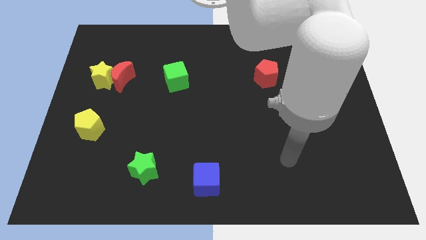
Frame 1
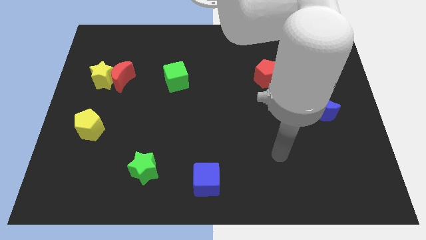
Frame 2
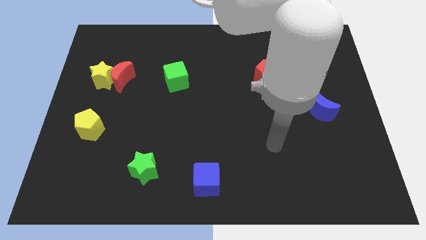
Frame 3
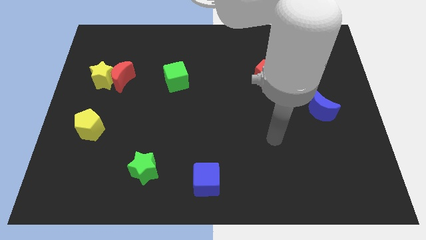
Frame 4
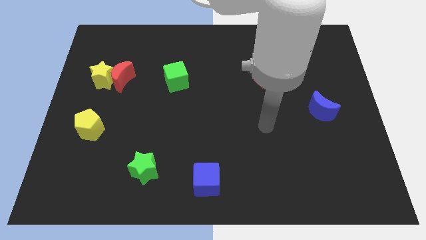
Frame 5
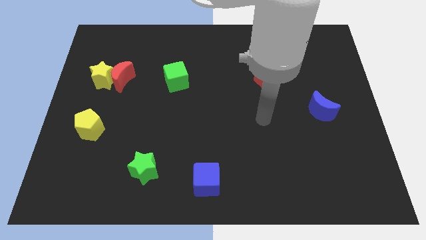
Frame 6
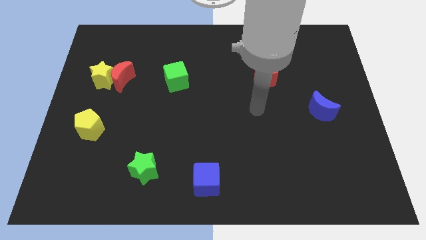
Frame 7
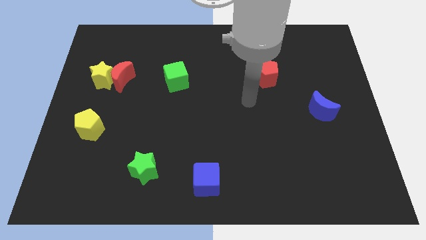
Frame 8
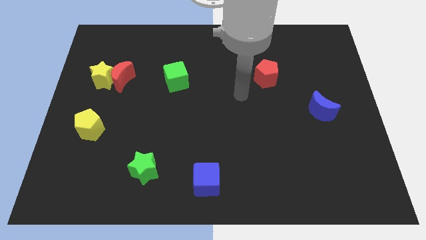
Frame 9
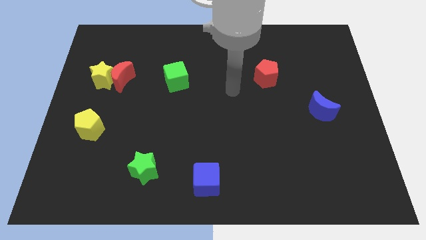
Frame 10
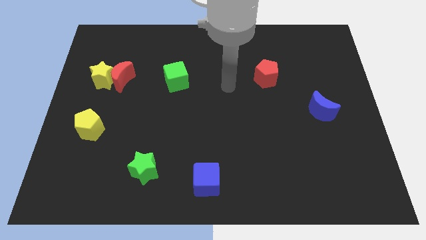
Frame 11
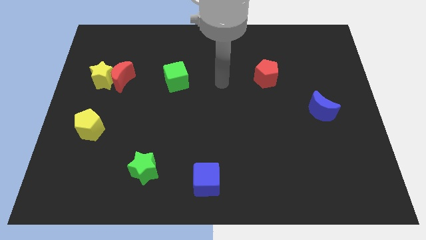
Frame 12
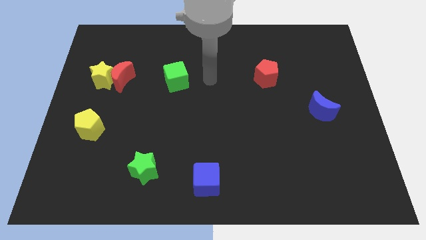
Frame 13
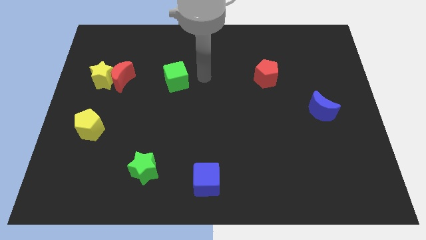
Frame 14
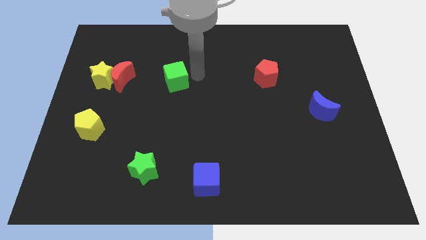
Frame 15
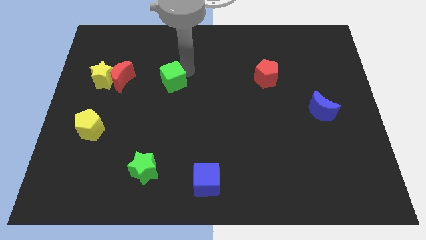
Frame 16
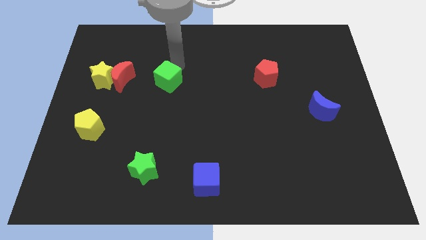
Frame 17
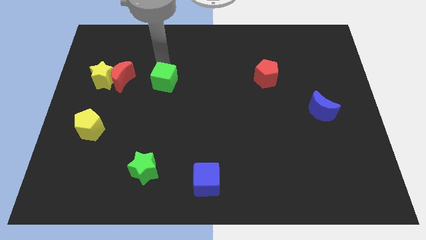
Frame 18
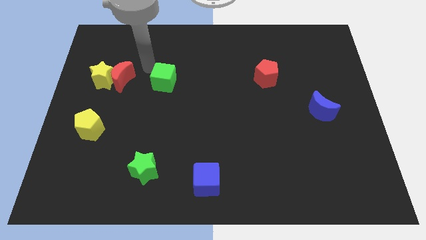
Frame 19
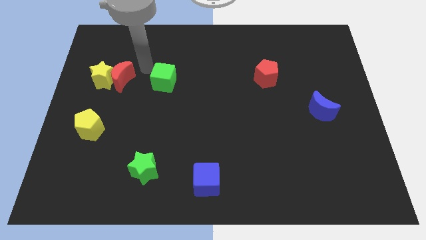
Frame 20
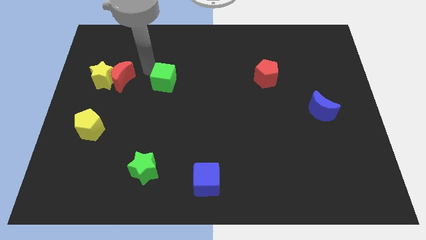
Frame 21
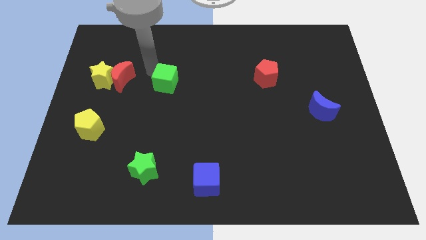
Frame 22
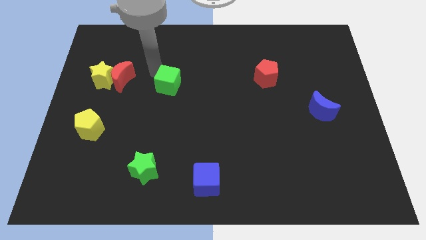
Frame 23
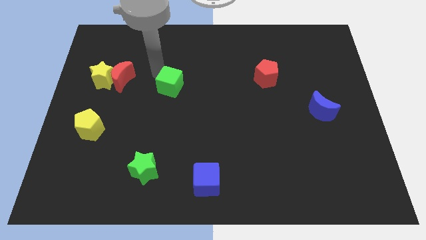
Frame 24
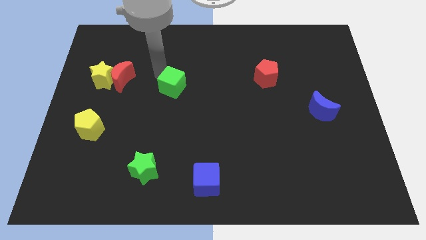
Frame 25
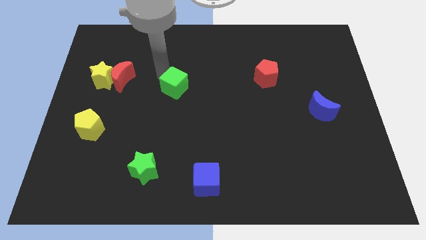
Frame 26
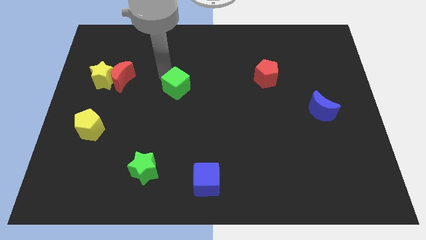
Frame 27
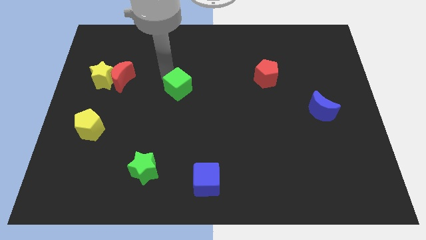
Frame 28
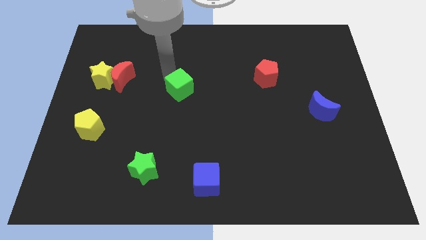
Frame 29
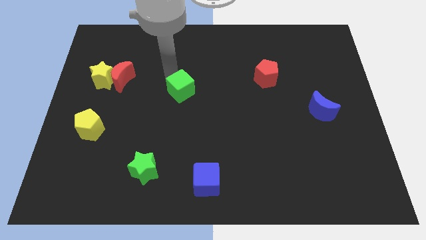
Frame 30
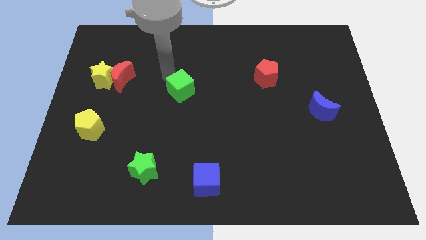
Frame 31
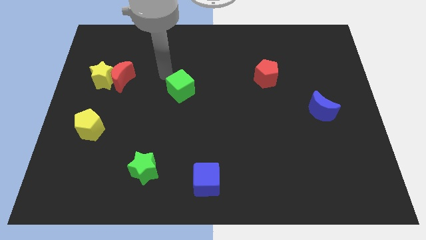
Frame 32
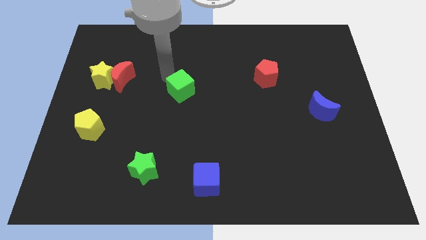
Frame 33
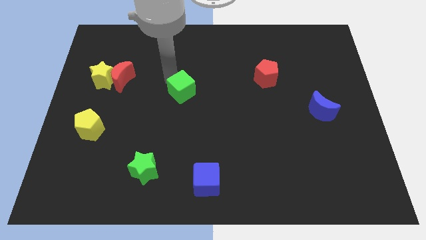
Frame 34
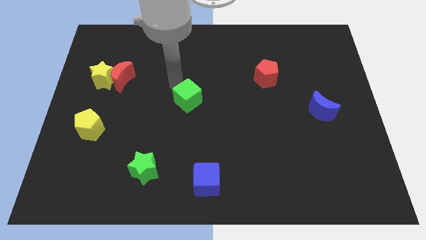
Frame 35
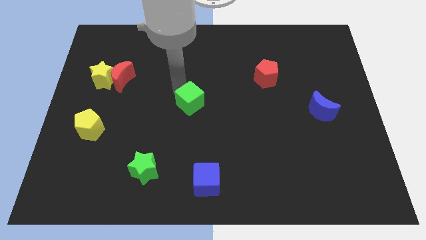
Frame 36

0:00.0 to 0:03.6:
push the green cube downwards and right slightly

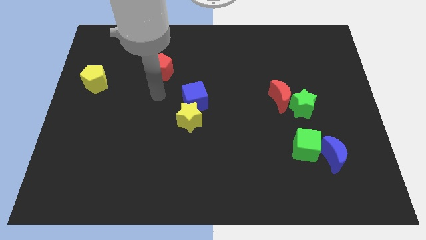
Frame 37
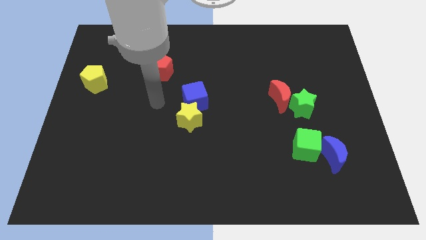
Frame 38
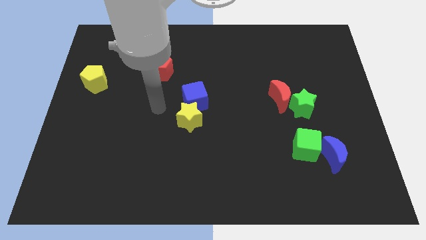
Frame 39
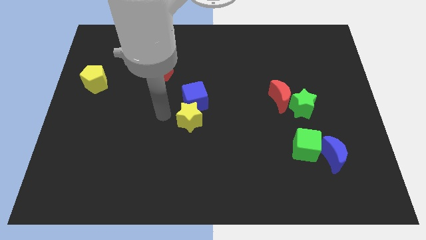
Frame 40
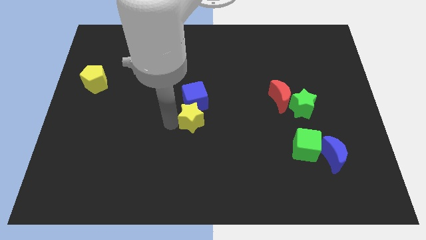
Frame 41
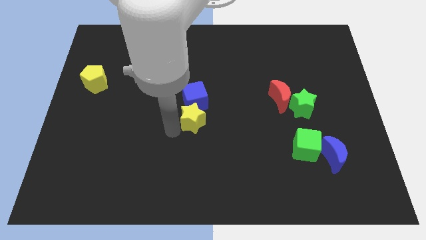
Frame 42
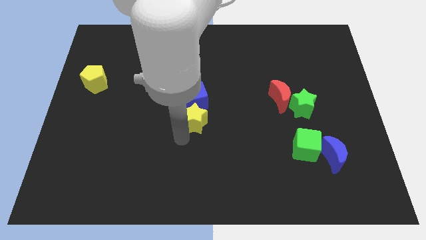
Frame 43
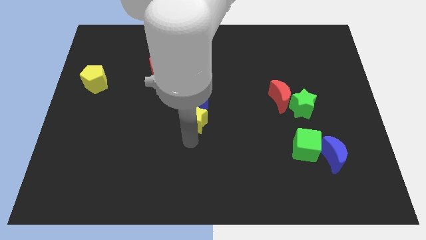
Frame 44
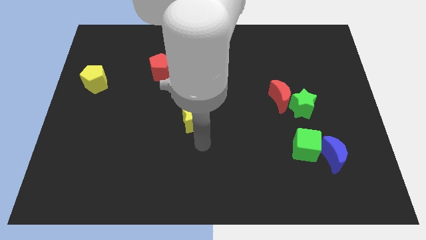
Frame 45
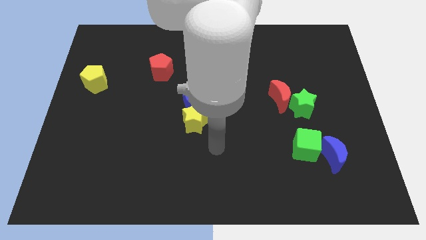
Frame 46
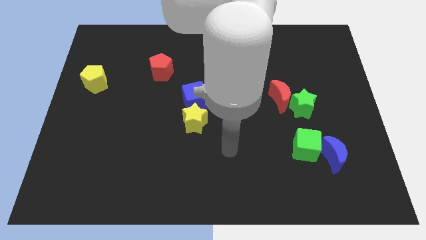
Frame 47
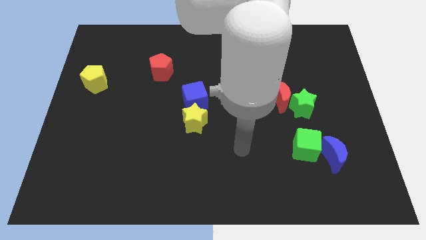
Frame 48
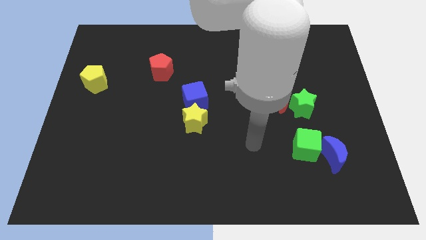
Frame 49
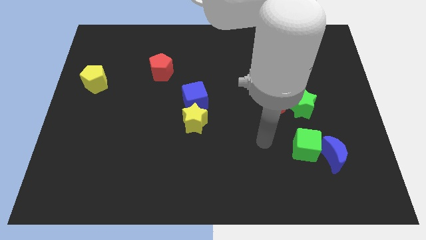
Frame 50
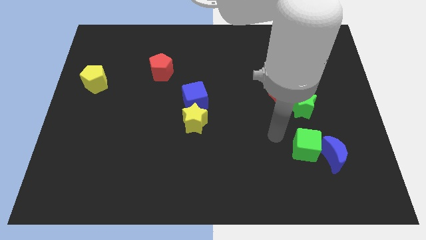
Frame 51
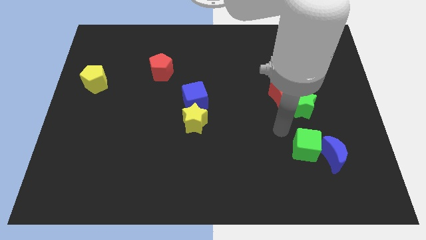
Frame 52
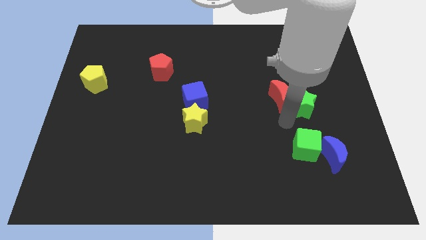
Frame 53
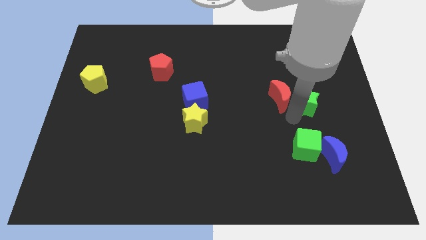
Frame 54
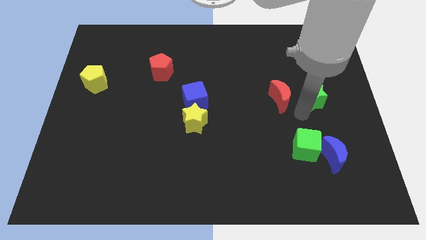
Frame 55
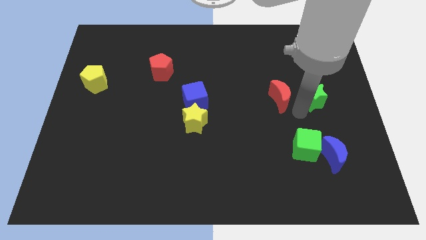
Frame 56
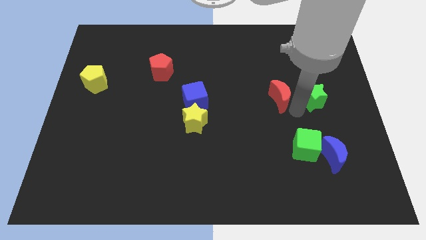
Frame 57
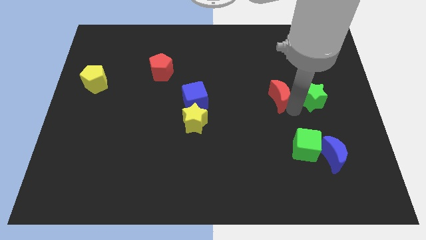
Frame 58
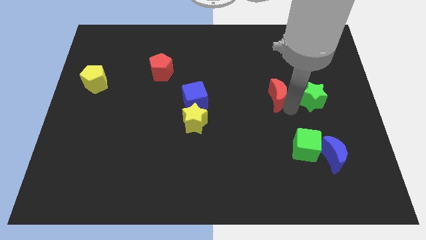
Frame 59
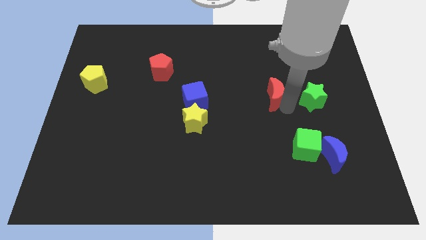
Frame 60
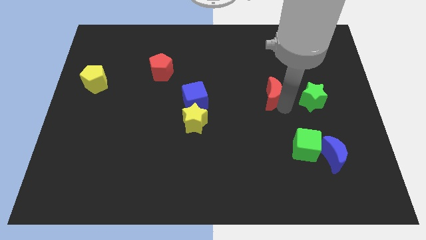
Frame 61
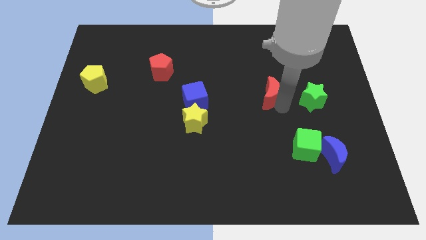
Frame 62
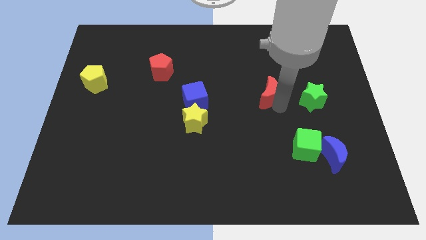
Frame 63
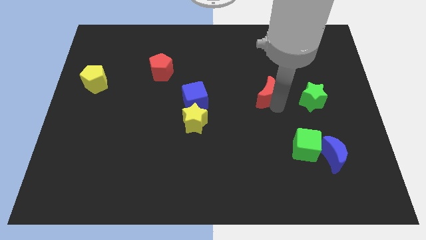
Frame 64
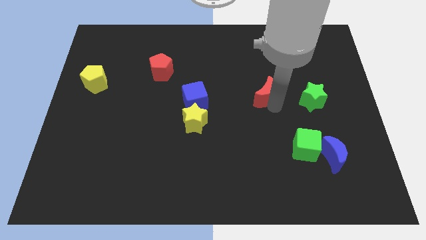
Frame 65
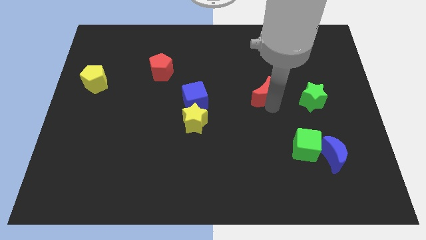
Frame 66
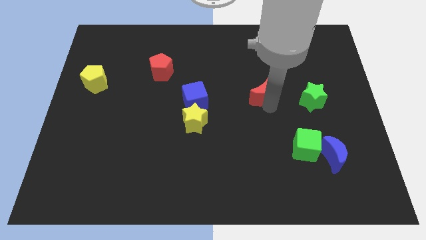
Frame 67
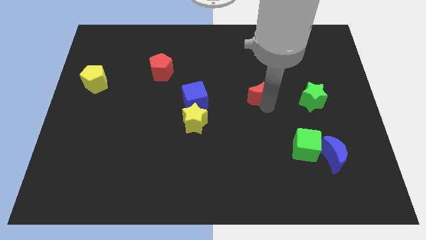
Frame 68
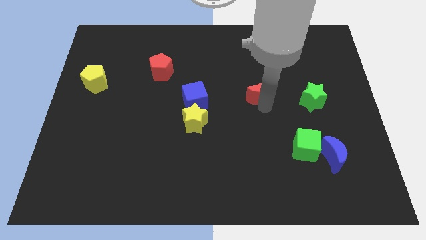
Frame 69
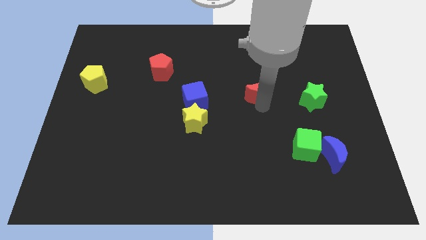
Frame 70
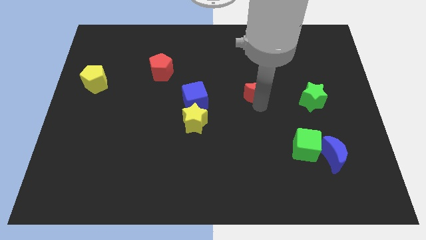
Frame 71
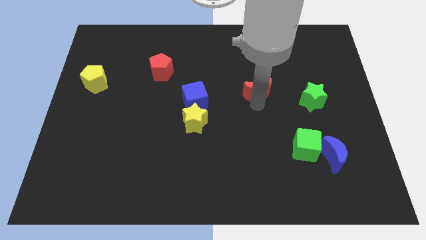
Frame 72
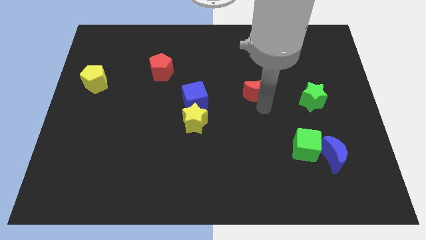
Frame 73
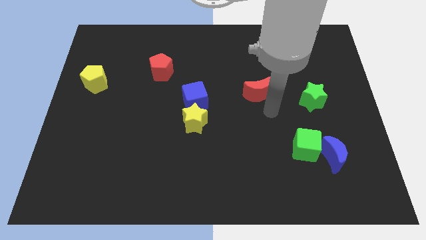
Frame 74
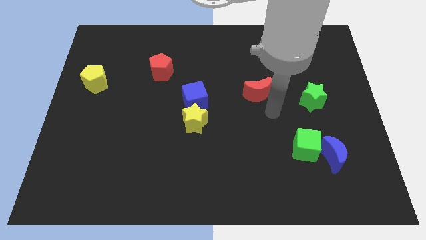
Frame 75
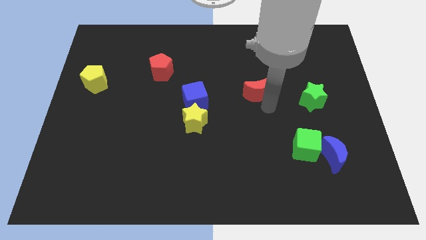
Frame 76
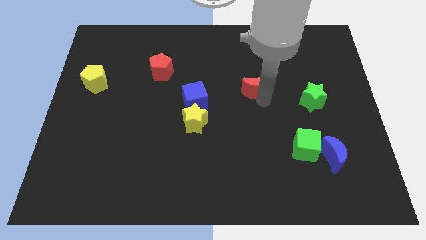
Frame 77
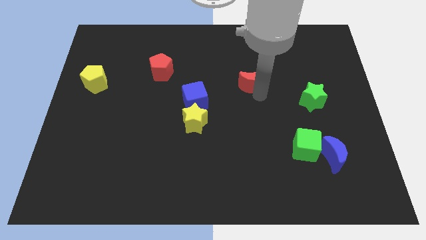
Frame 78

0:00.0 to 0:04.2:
slightly move the red moon up and then left

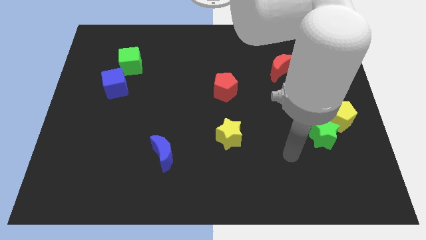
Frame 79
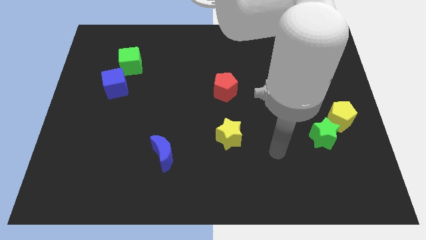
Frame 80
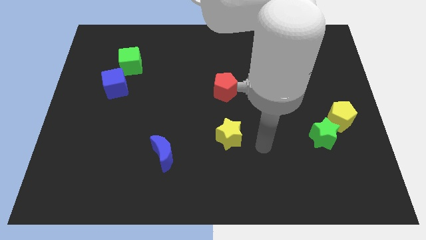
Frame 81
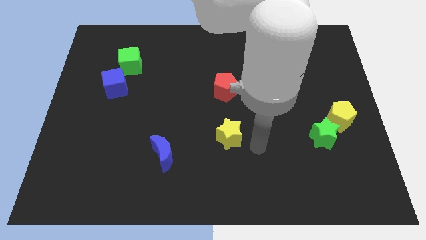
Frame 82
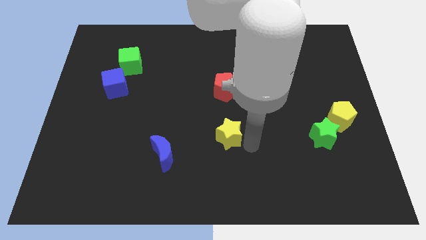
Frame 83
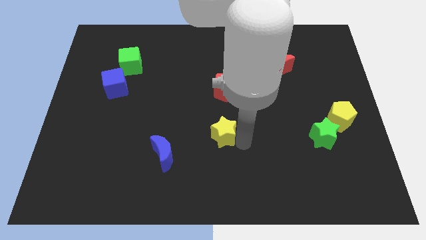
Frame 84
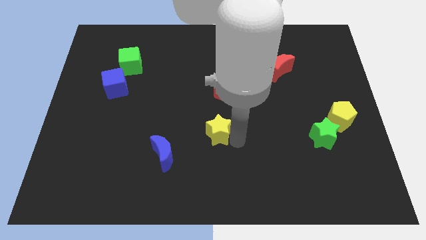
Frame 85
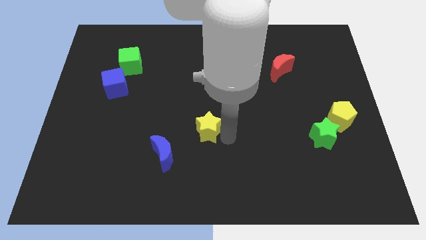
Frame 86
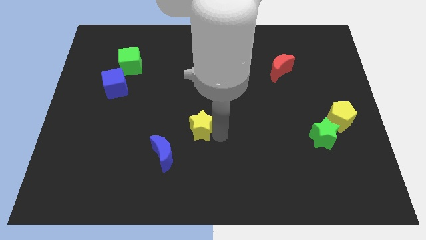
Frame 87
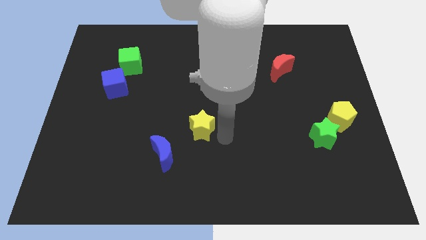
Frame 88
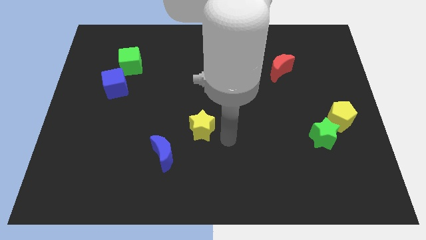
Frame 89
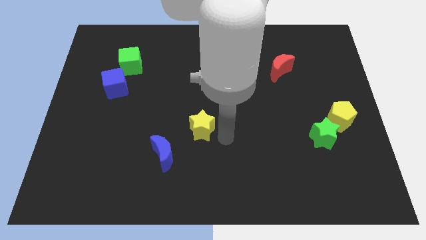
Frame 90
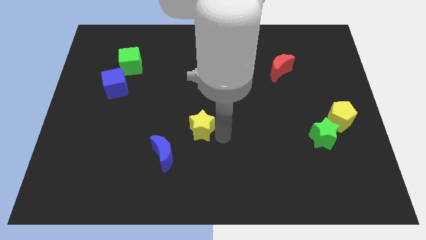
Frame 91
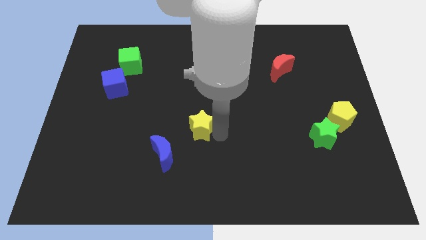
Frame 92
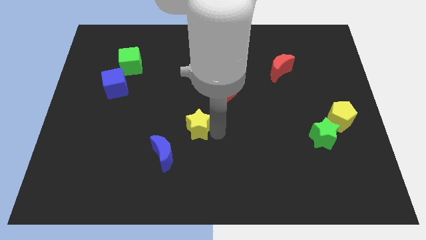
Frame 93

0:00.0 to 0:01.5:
push the yellow star to the left a little bit
